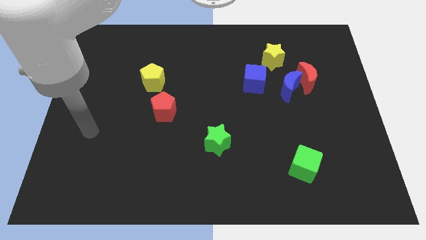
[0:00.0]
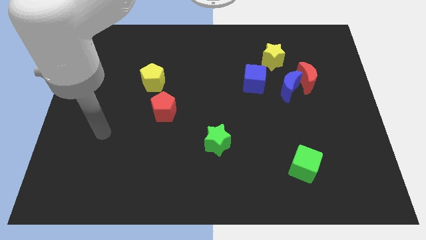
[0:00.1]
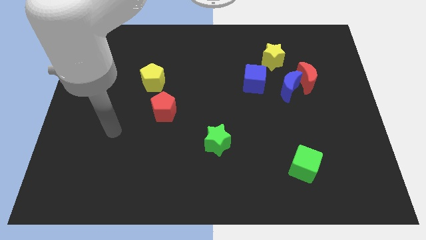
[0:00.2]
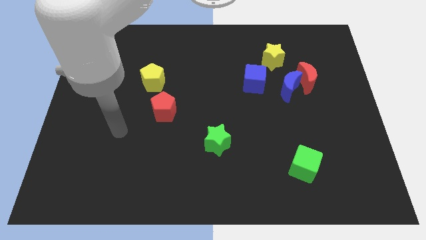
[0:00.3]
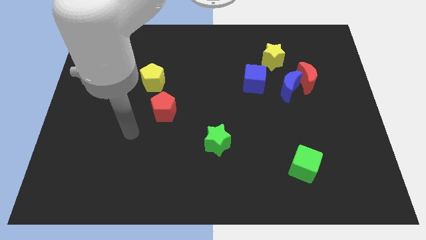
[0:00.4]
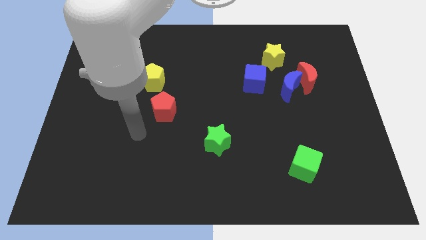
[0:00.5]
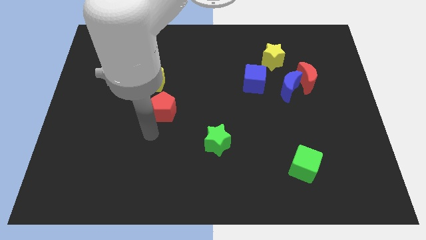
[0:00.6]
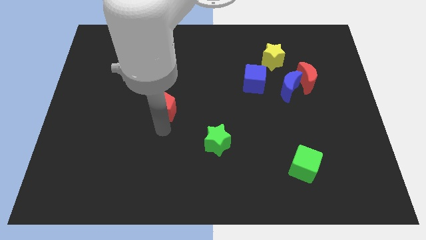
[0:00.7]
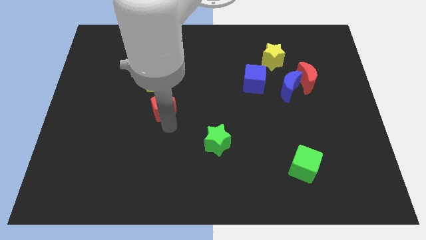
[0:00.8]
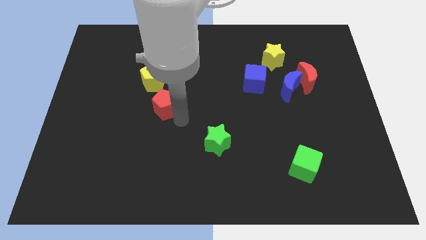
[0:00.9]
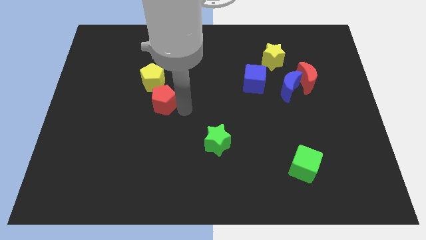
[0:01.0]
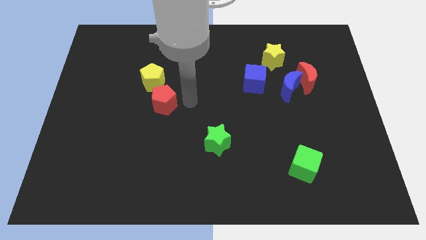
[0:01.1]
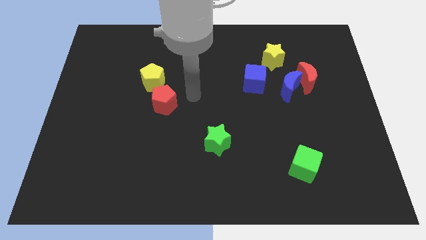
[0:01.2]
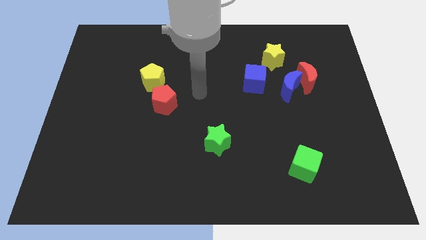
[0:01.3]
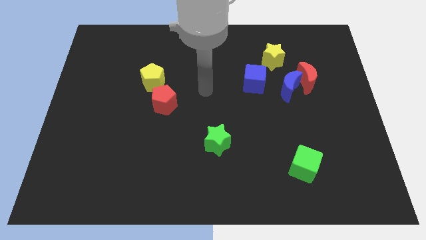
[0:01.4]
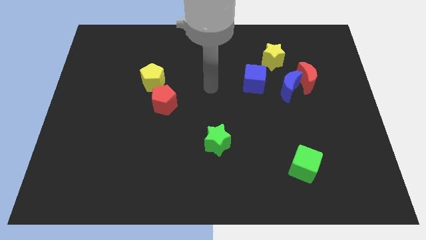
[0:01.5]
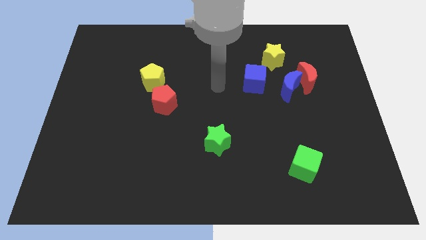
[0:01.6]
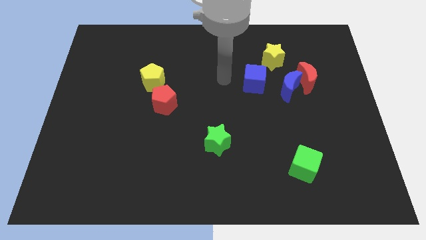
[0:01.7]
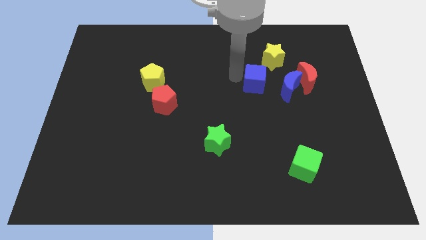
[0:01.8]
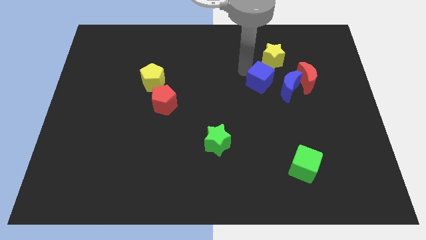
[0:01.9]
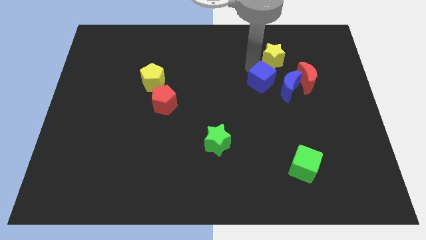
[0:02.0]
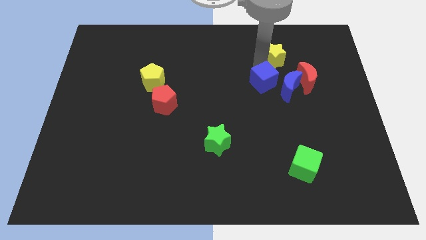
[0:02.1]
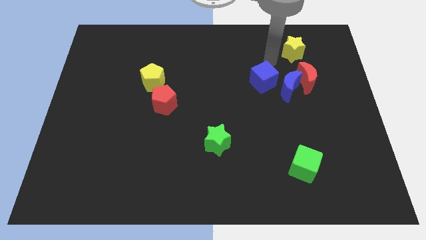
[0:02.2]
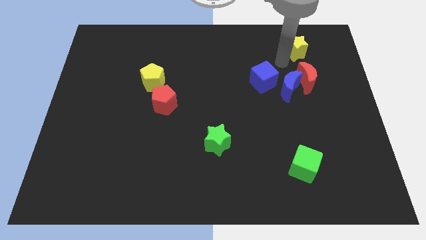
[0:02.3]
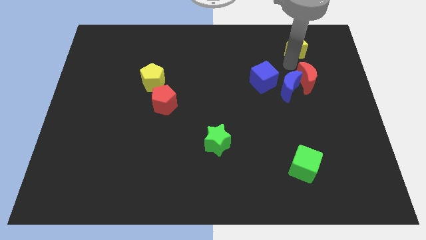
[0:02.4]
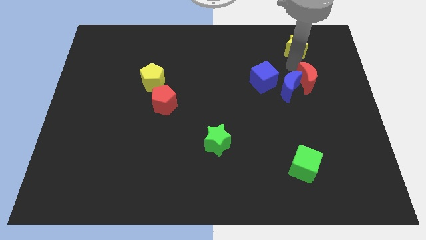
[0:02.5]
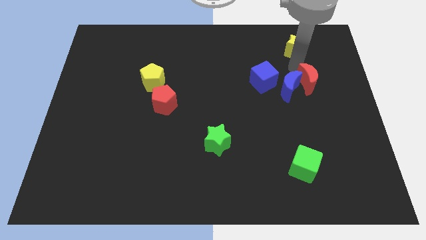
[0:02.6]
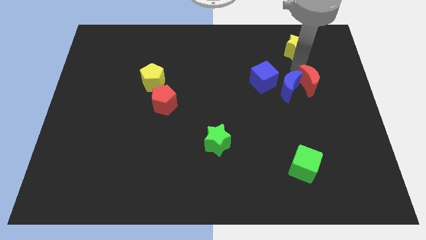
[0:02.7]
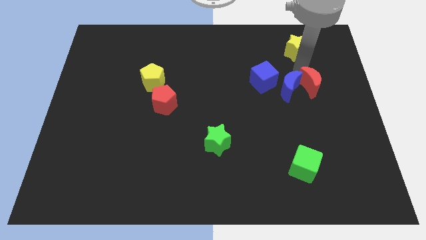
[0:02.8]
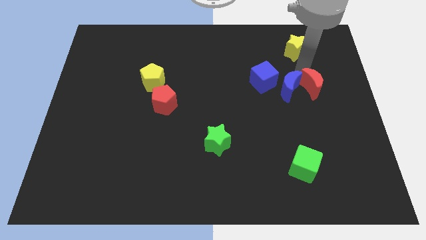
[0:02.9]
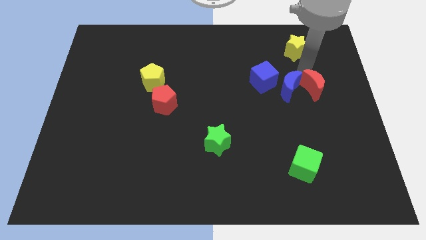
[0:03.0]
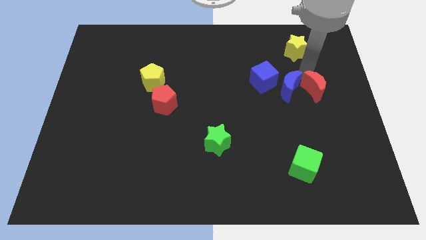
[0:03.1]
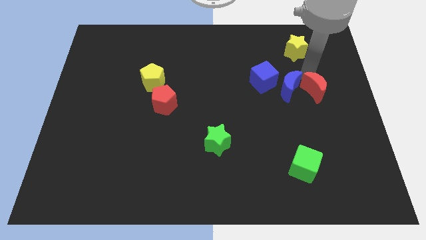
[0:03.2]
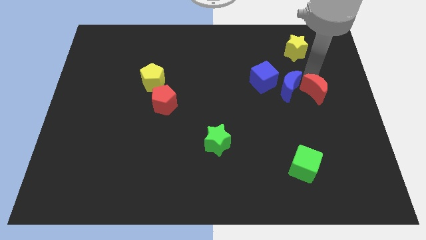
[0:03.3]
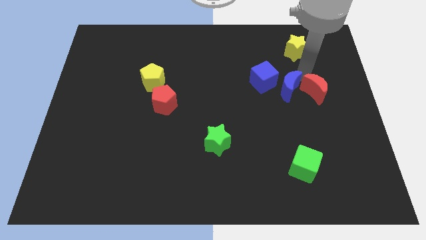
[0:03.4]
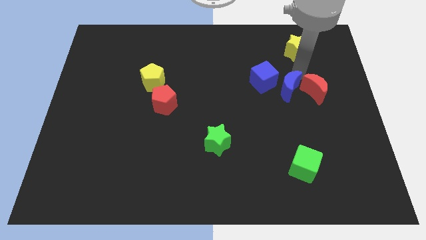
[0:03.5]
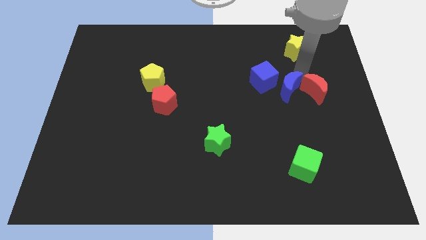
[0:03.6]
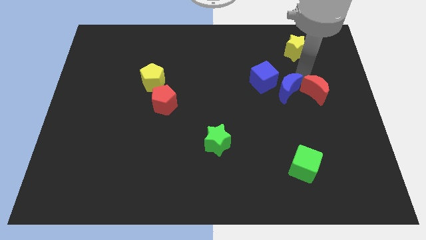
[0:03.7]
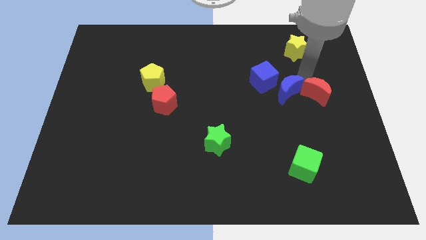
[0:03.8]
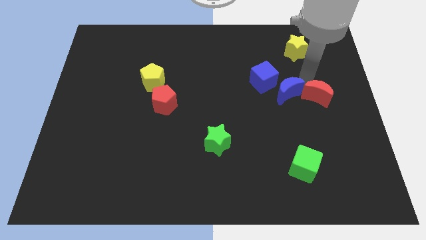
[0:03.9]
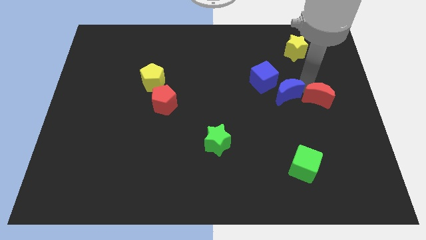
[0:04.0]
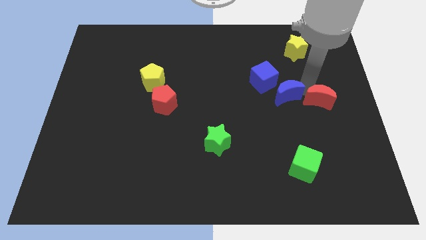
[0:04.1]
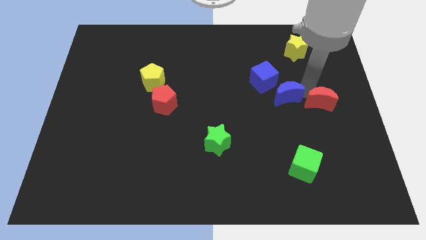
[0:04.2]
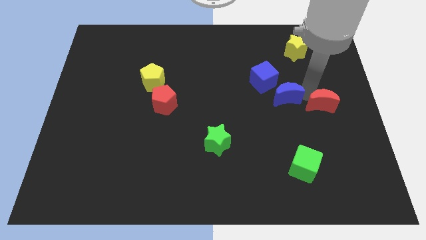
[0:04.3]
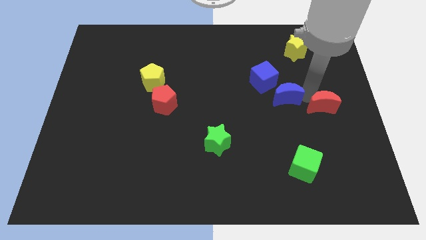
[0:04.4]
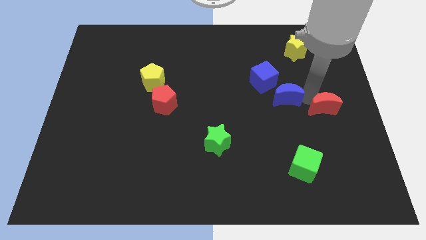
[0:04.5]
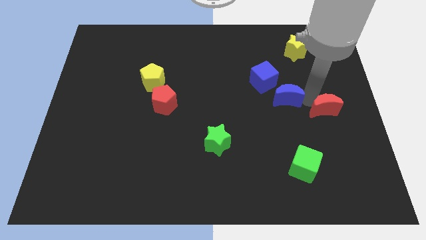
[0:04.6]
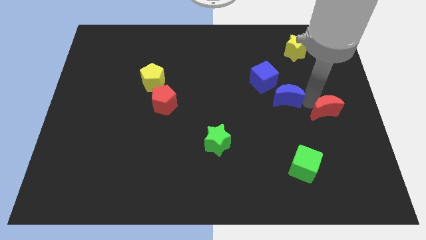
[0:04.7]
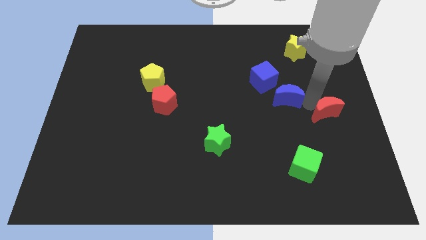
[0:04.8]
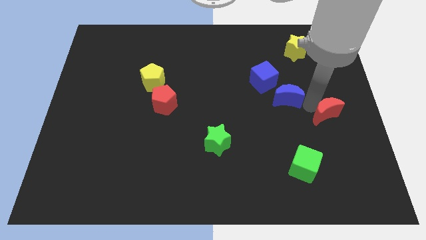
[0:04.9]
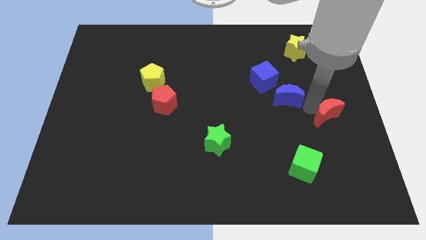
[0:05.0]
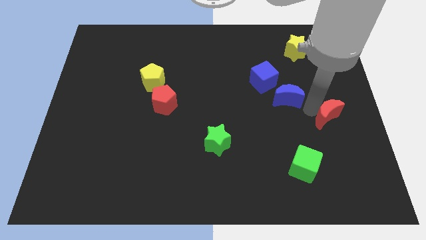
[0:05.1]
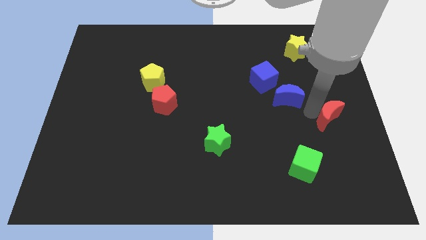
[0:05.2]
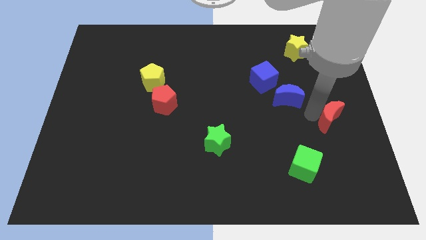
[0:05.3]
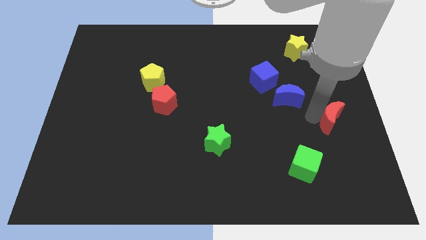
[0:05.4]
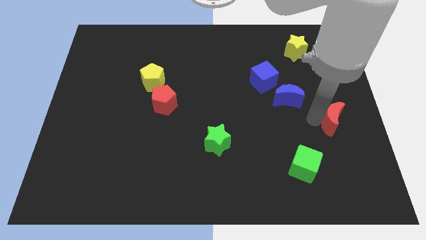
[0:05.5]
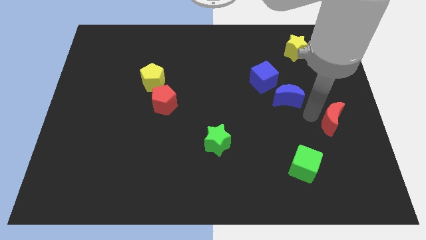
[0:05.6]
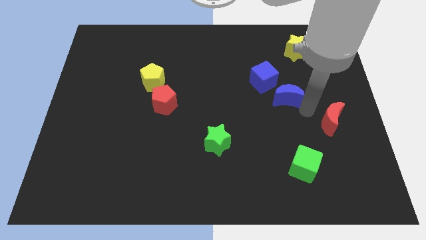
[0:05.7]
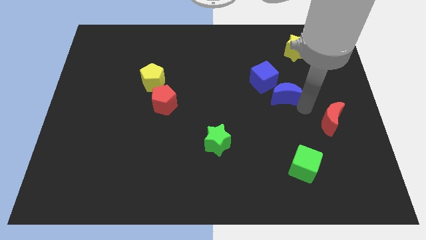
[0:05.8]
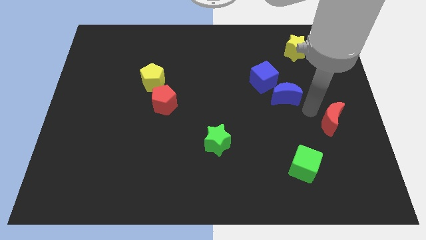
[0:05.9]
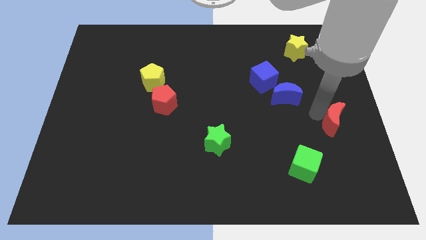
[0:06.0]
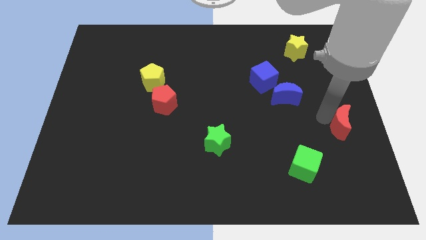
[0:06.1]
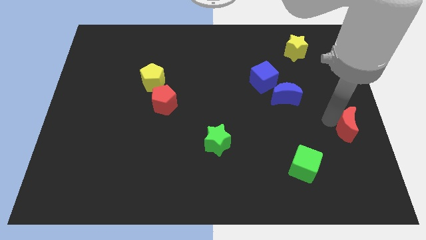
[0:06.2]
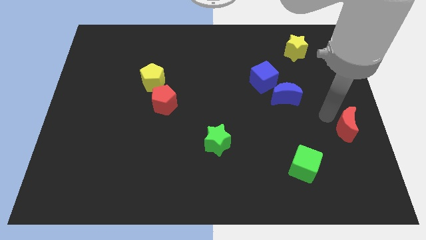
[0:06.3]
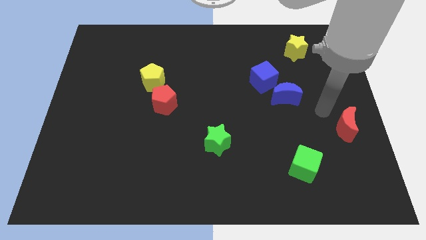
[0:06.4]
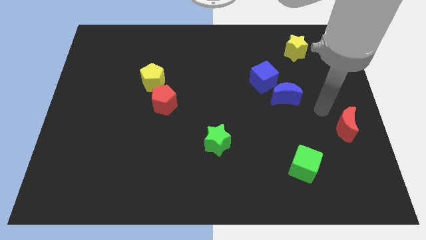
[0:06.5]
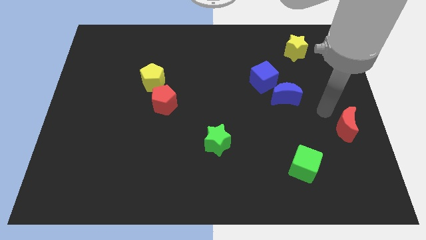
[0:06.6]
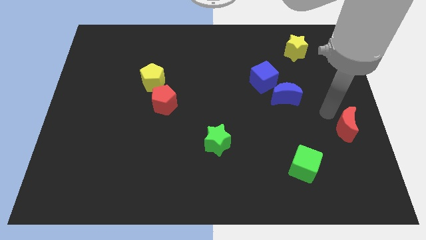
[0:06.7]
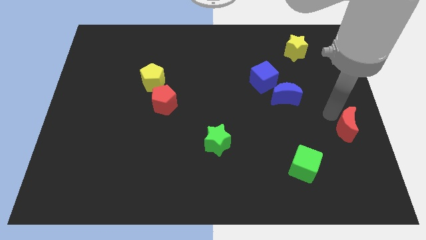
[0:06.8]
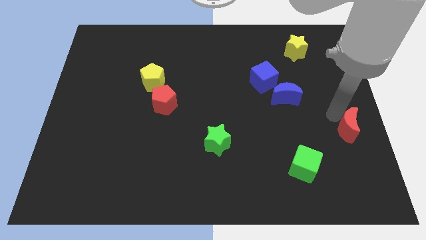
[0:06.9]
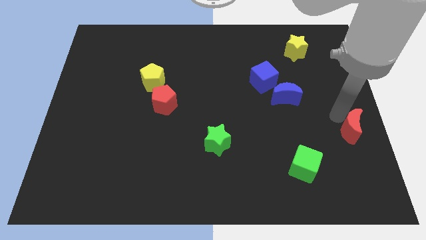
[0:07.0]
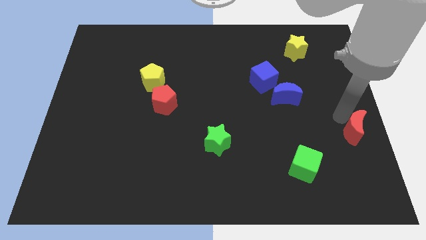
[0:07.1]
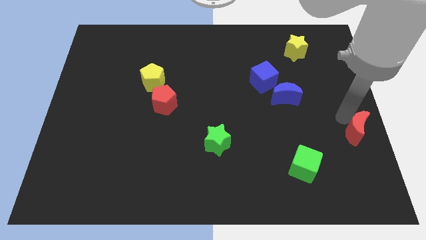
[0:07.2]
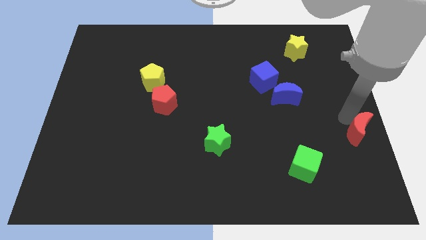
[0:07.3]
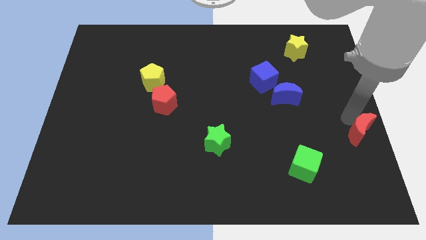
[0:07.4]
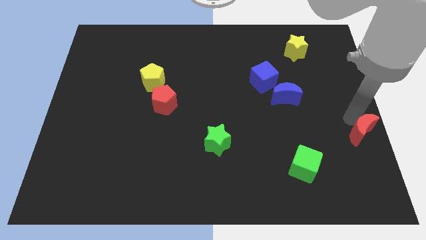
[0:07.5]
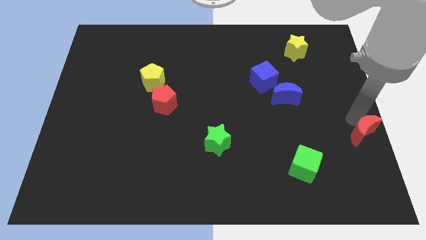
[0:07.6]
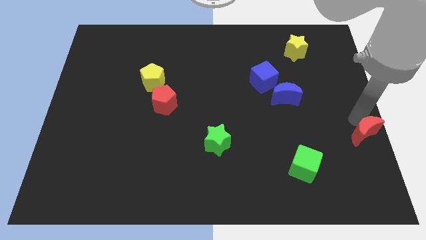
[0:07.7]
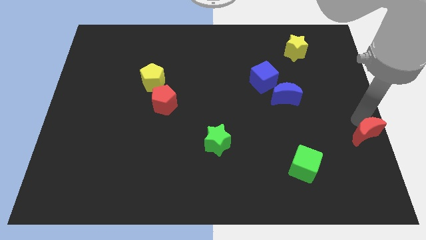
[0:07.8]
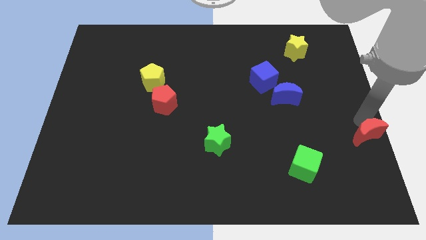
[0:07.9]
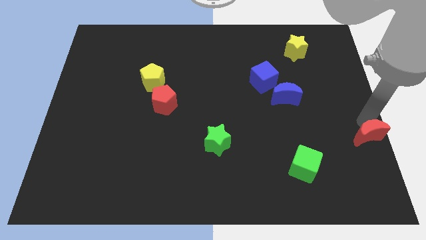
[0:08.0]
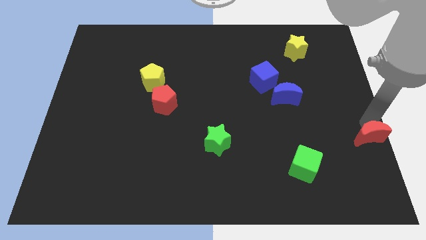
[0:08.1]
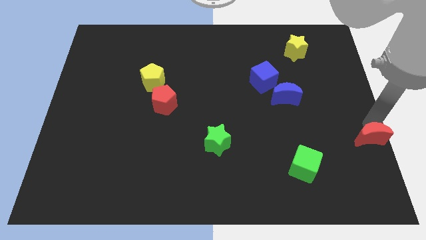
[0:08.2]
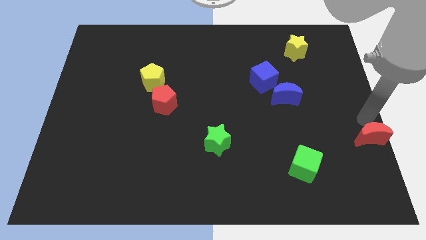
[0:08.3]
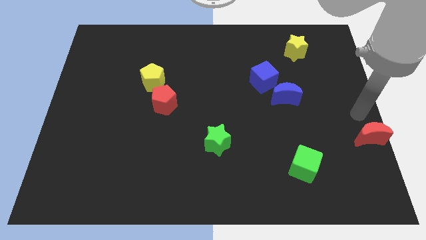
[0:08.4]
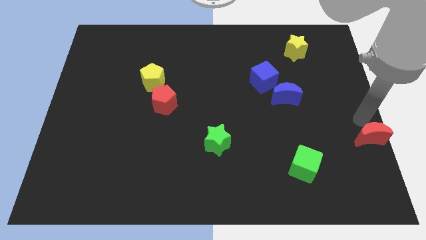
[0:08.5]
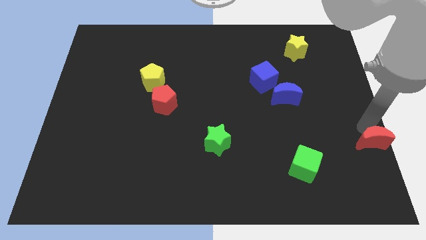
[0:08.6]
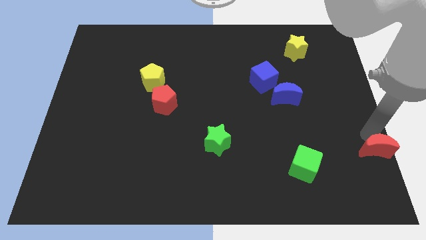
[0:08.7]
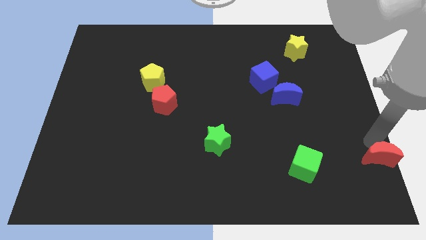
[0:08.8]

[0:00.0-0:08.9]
push the red moon to the bottom right corner
